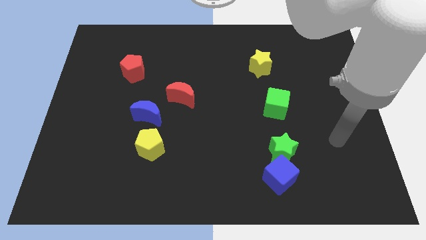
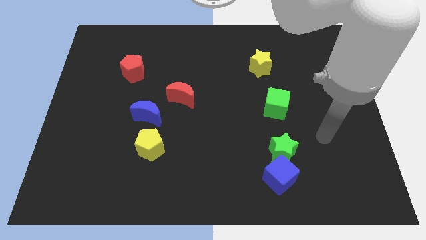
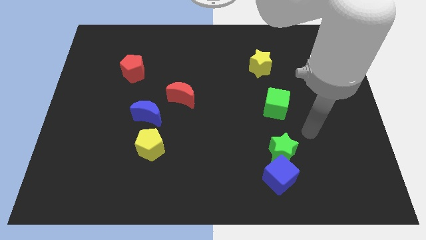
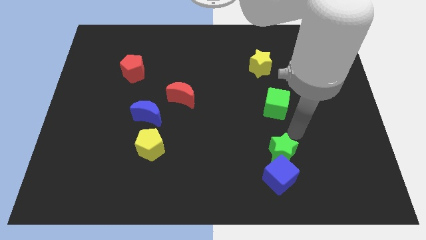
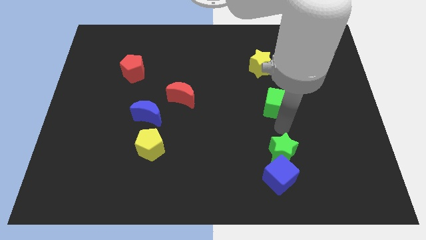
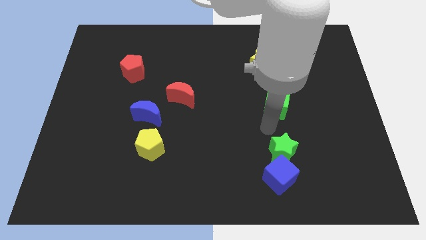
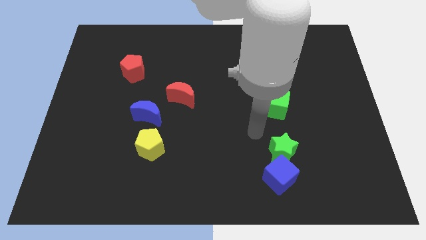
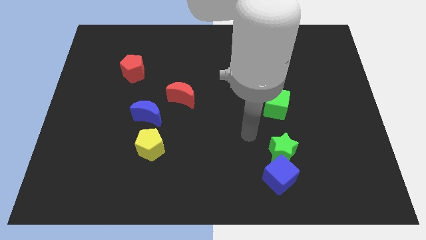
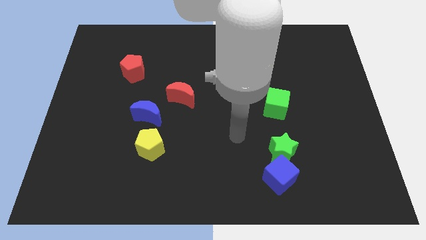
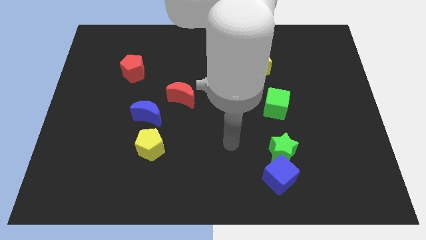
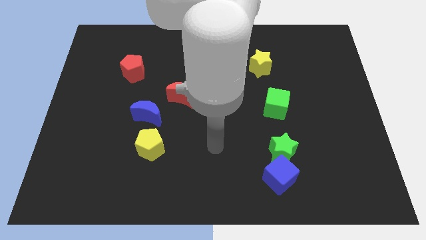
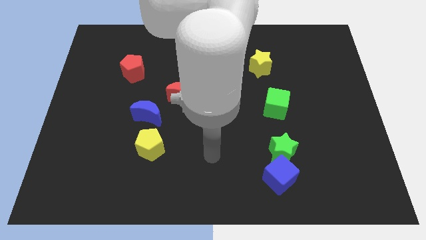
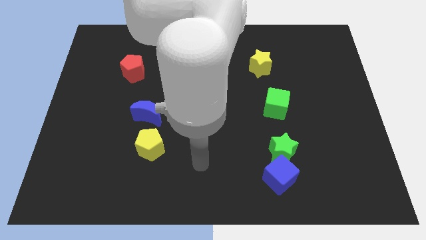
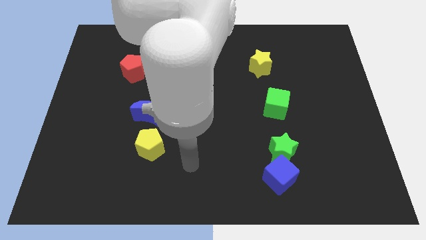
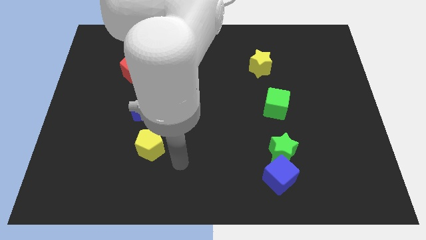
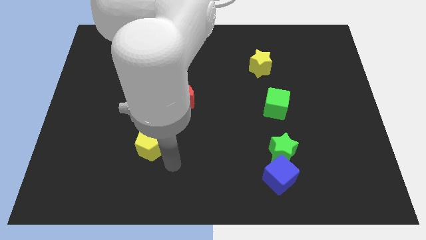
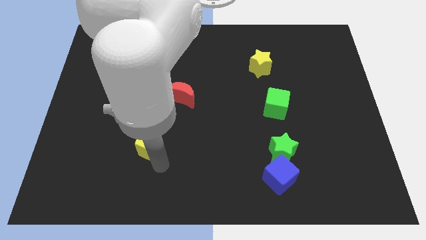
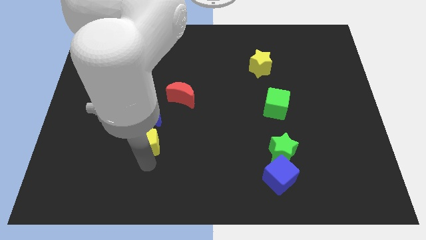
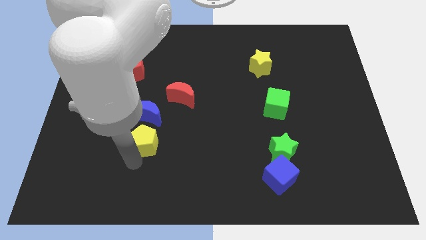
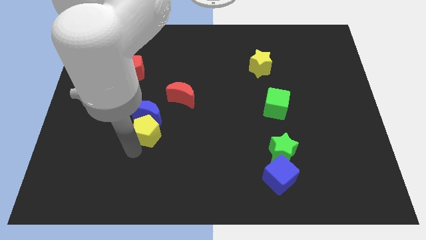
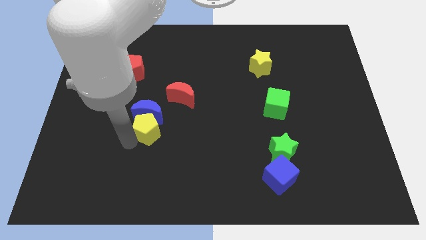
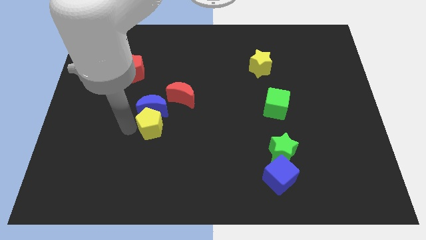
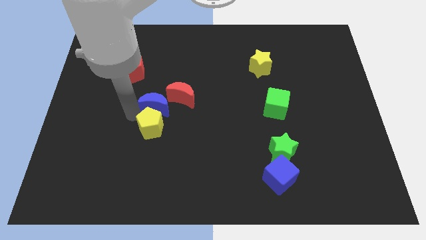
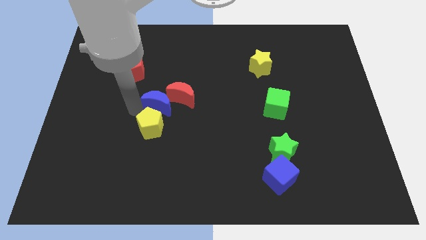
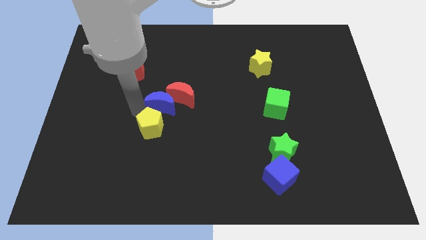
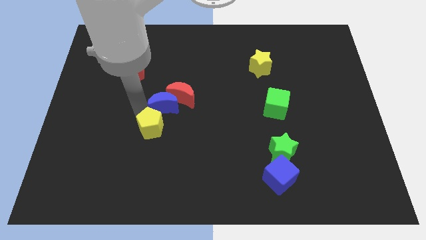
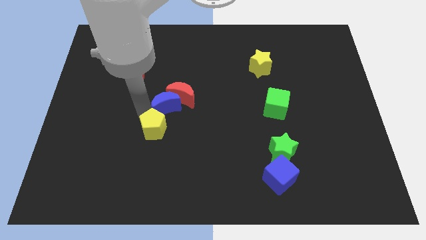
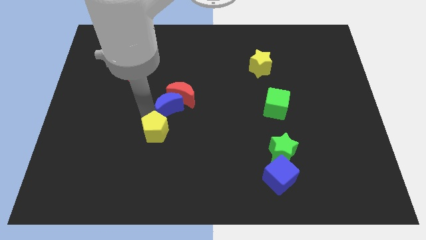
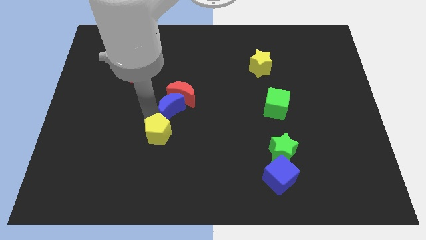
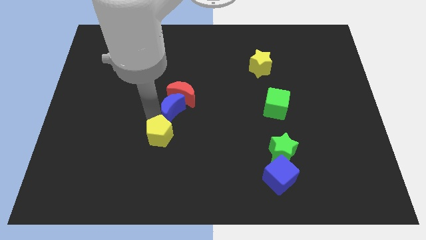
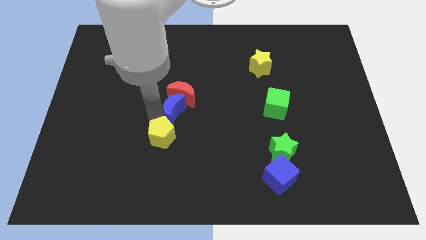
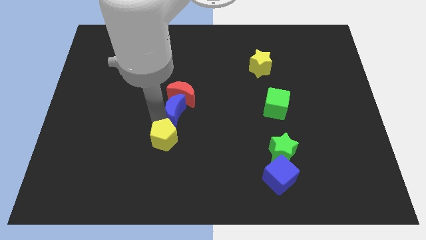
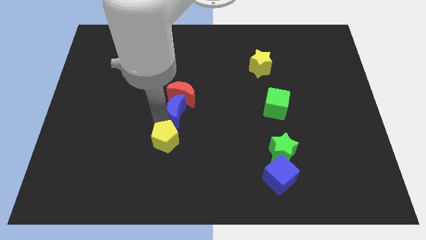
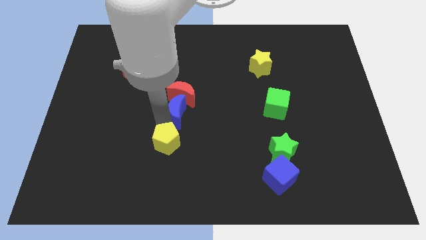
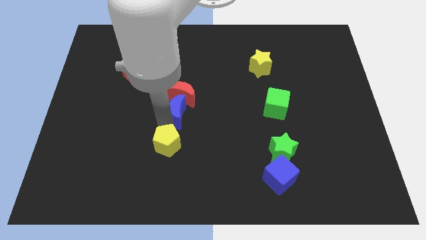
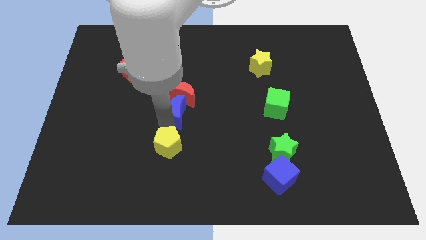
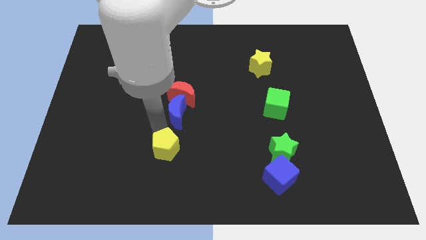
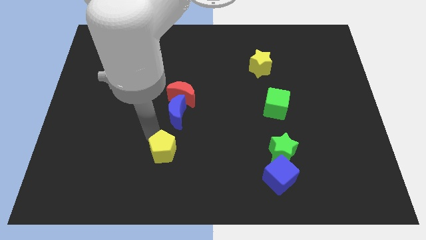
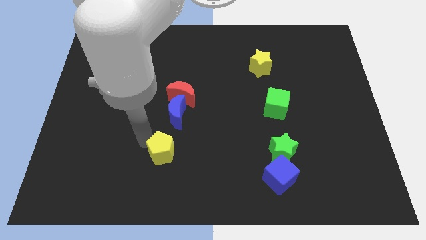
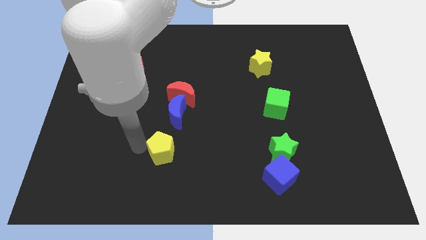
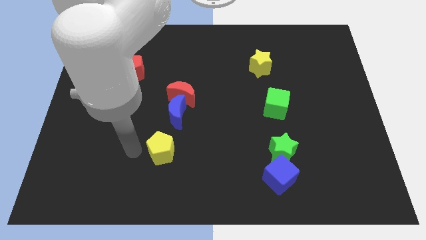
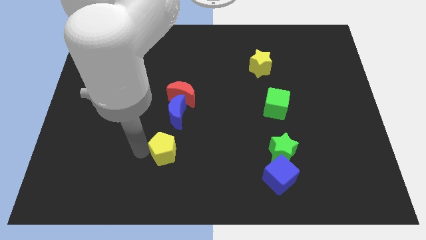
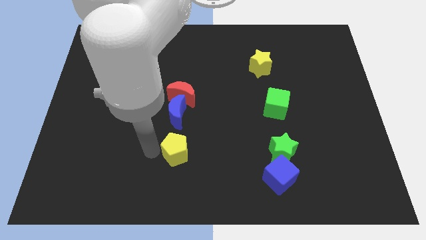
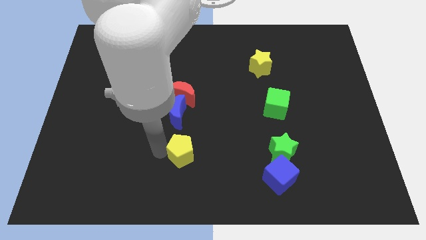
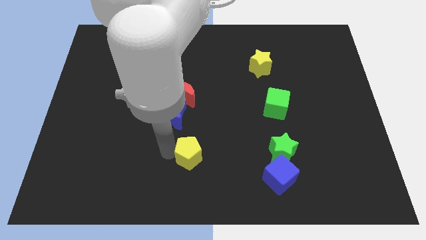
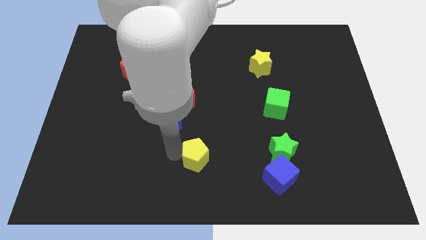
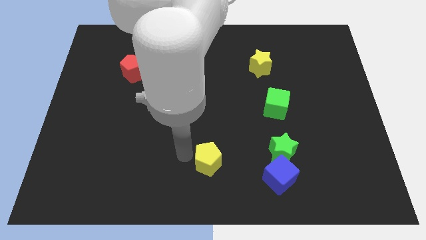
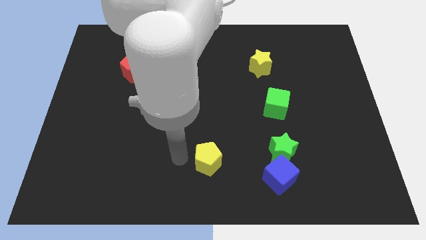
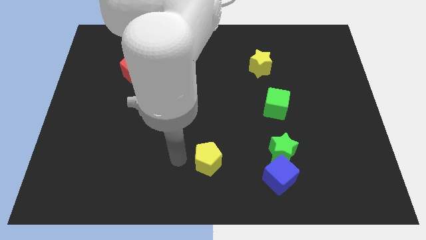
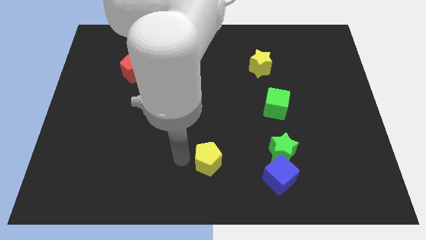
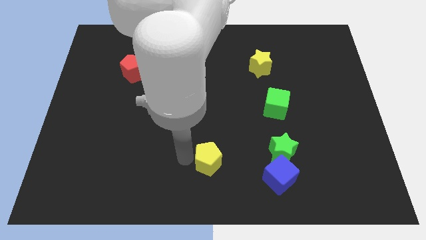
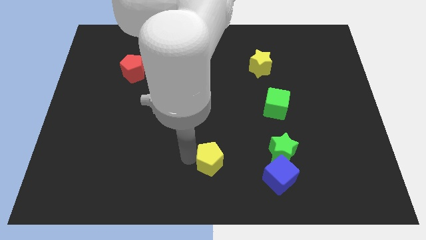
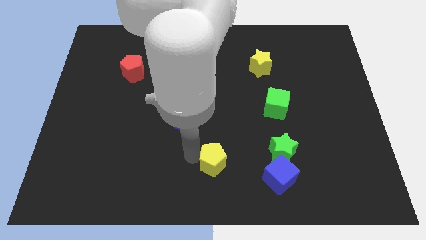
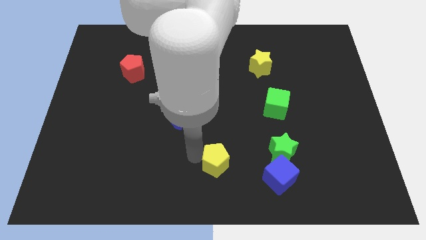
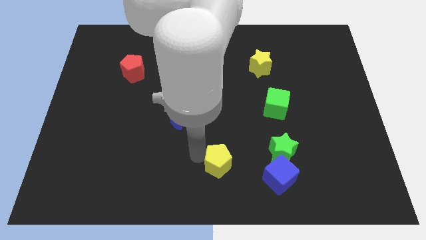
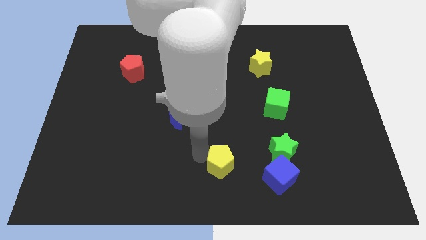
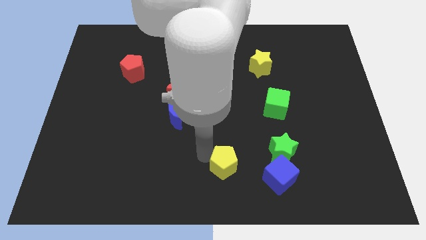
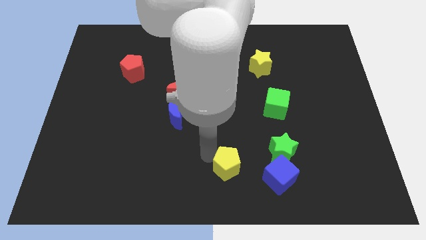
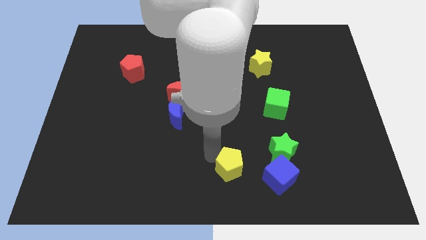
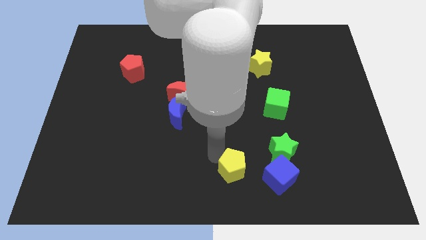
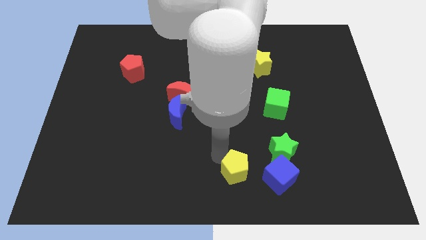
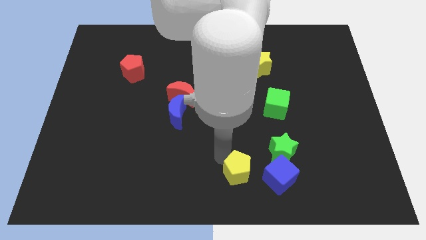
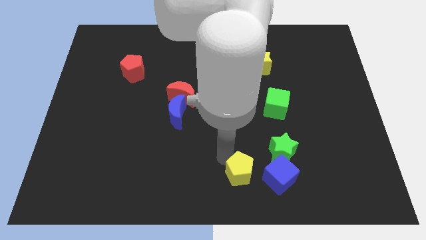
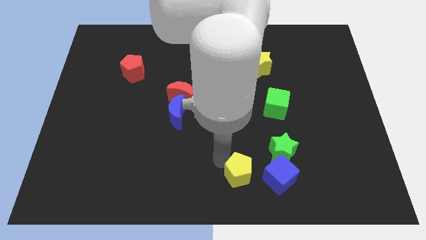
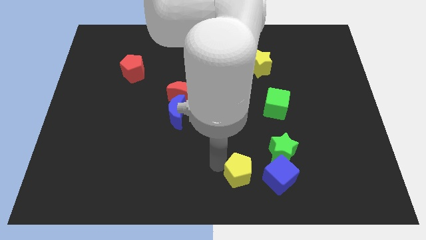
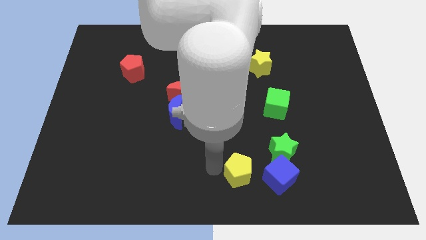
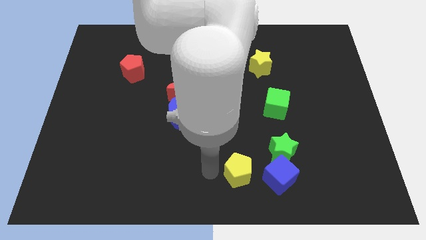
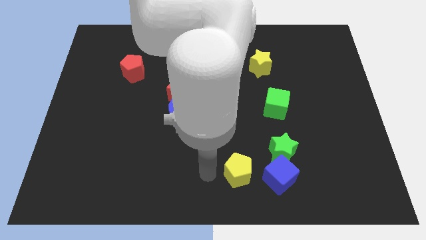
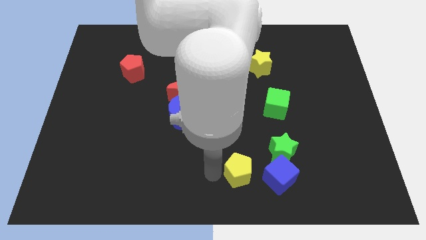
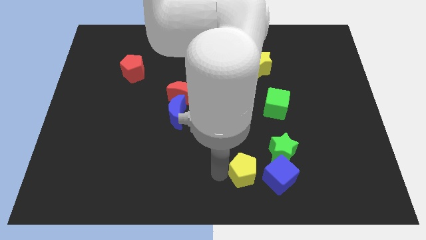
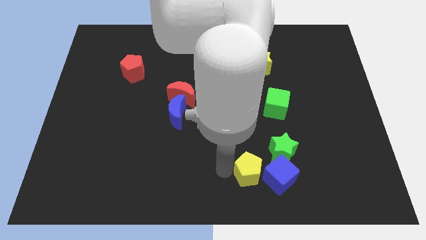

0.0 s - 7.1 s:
slide the yellow pentagon to the blue cube
